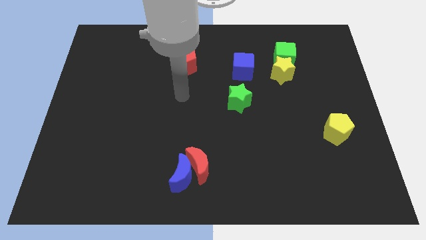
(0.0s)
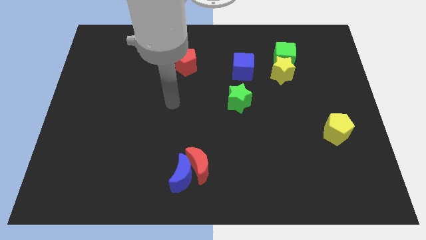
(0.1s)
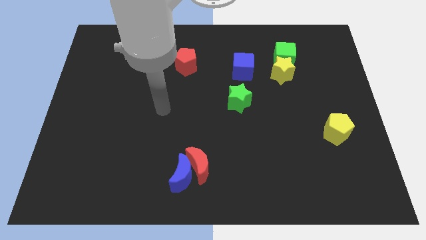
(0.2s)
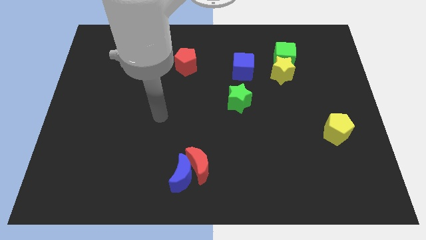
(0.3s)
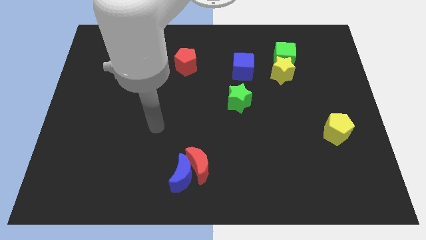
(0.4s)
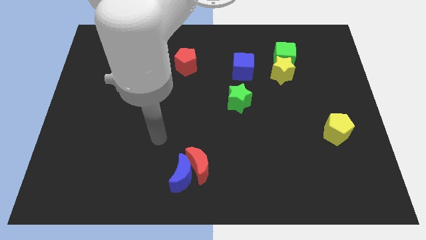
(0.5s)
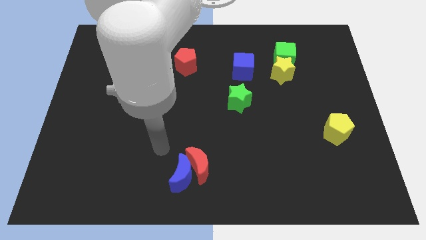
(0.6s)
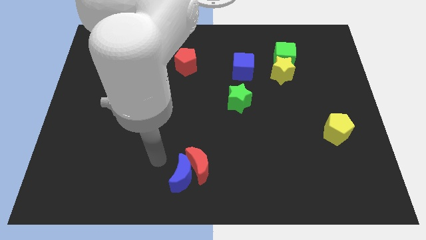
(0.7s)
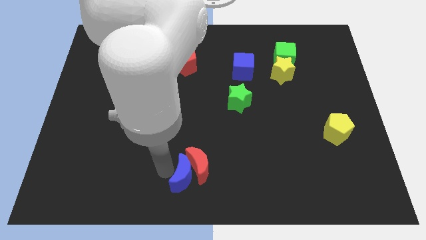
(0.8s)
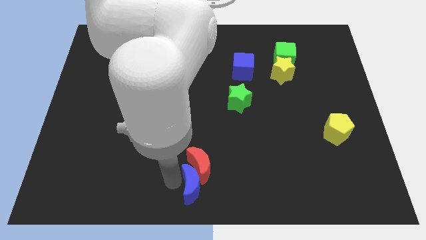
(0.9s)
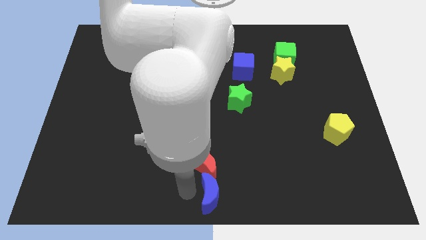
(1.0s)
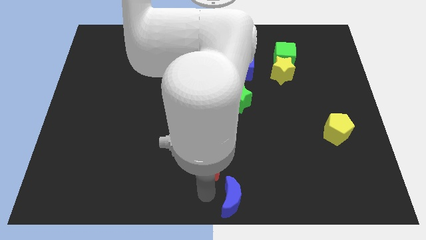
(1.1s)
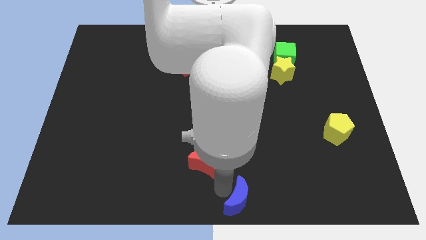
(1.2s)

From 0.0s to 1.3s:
move the red moon away from the blue moon

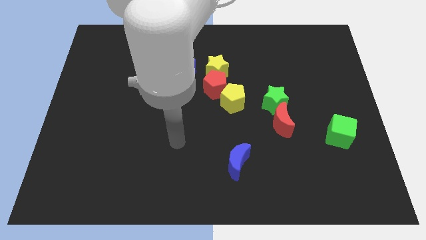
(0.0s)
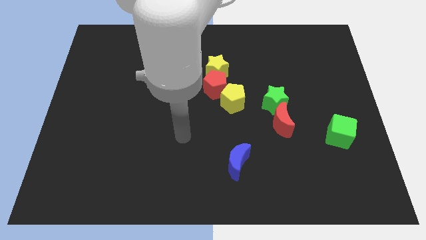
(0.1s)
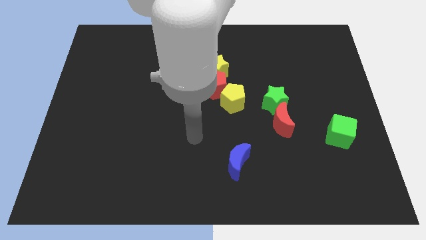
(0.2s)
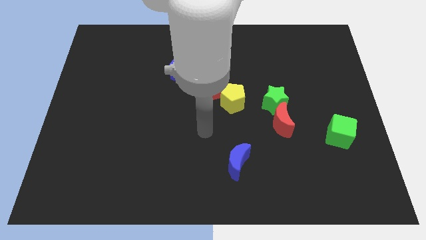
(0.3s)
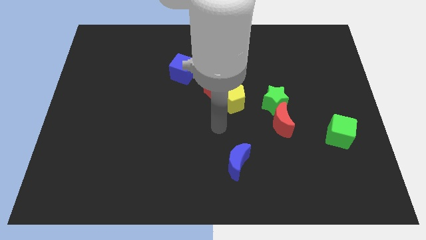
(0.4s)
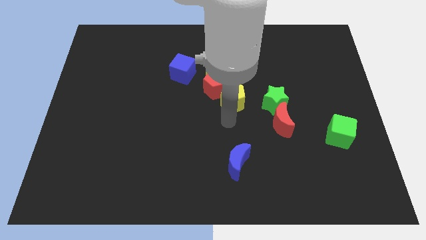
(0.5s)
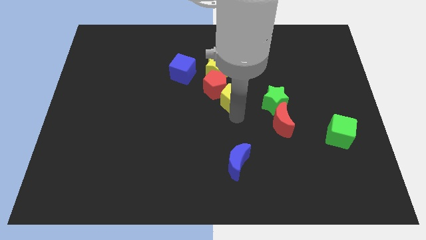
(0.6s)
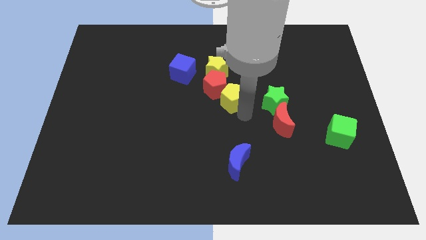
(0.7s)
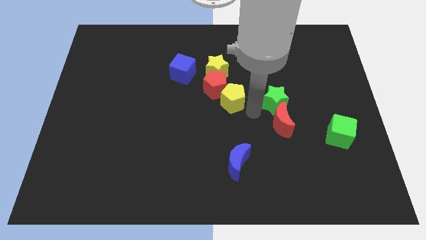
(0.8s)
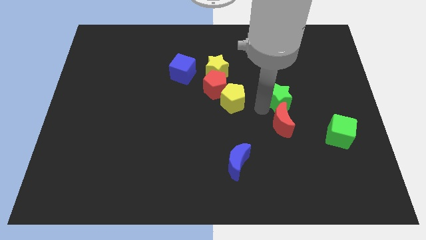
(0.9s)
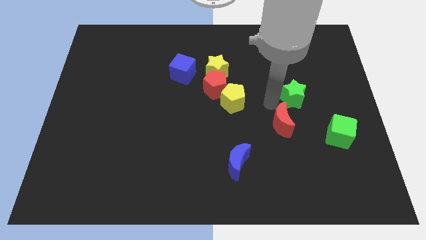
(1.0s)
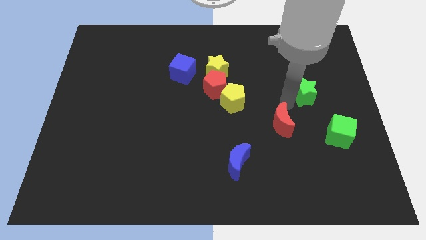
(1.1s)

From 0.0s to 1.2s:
pull the red moon apart from the green star

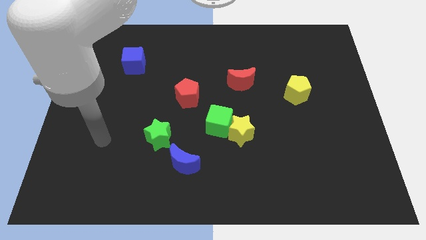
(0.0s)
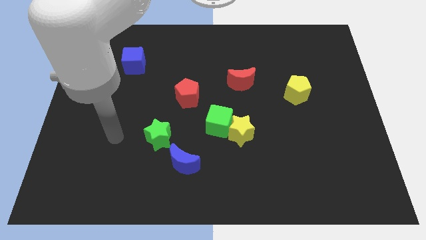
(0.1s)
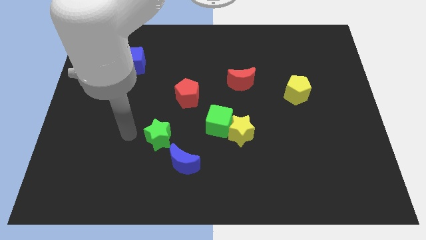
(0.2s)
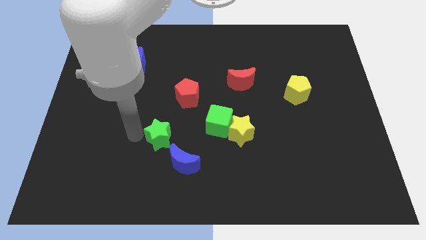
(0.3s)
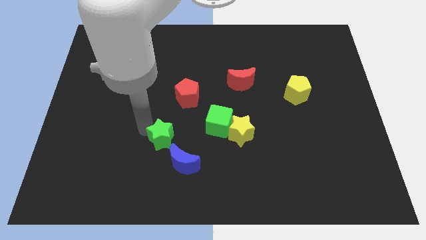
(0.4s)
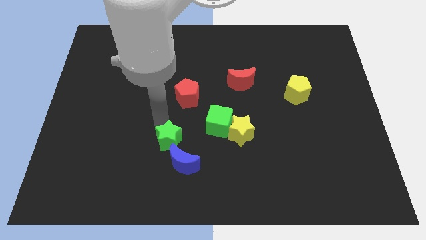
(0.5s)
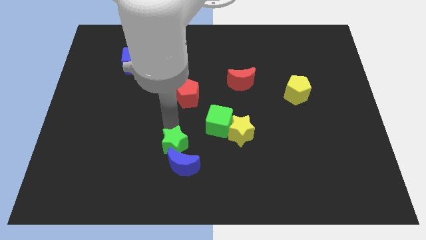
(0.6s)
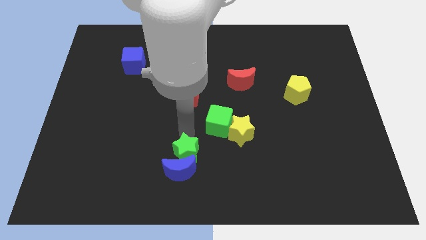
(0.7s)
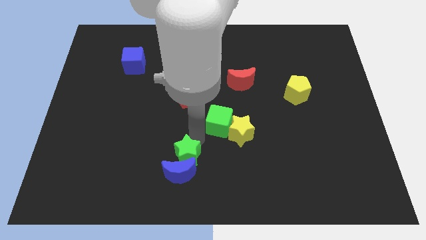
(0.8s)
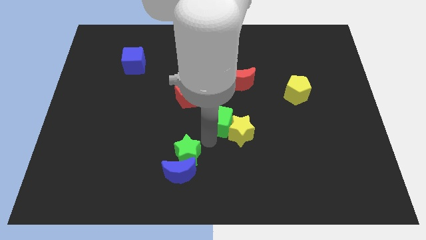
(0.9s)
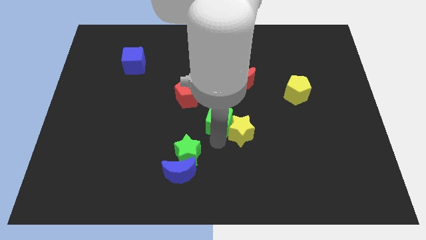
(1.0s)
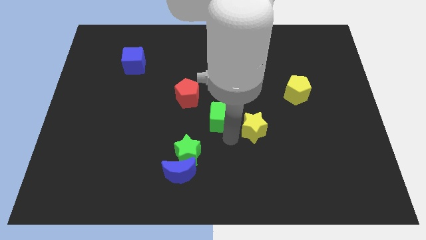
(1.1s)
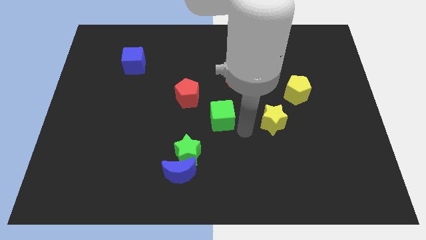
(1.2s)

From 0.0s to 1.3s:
separate the green cube from the yellow star

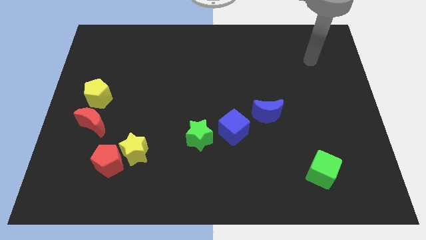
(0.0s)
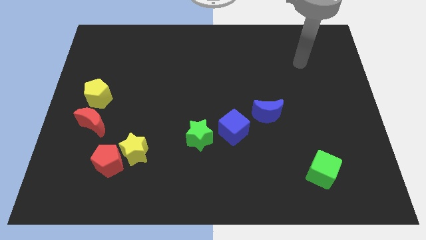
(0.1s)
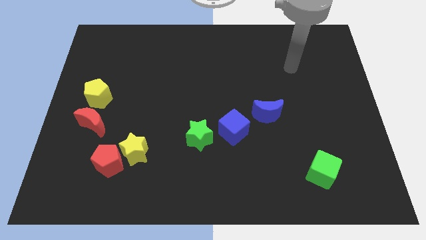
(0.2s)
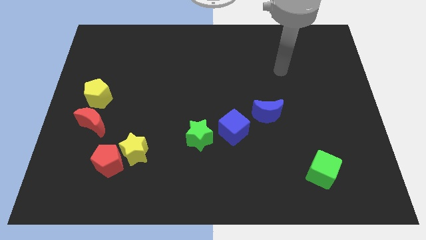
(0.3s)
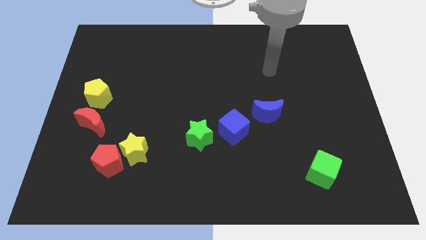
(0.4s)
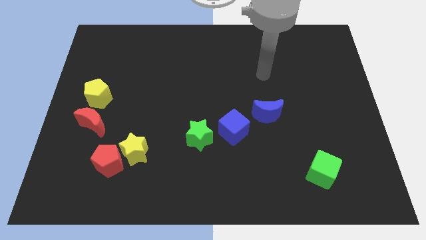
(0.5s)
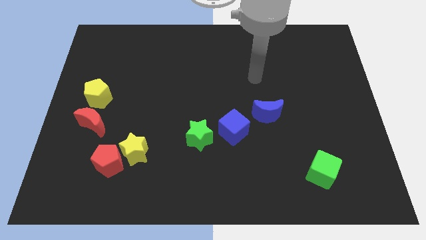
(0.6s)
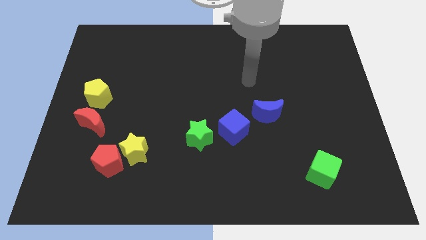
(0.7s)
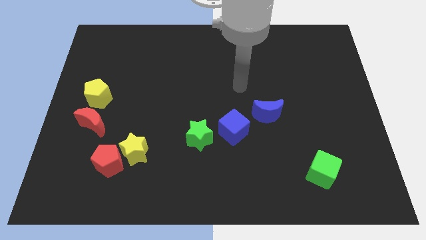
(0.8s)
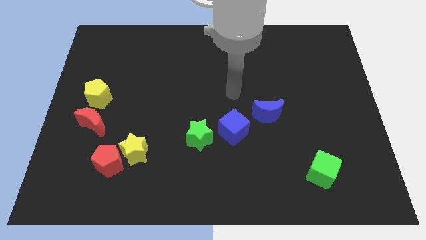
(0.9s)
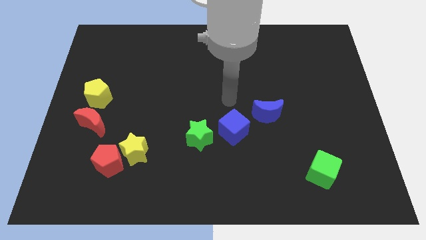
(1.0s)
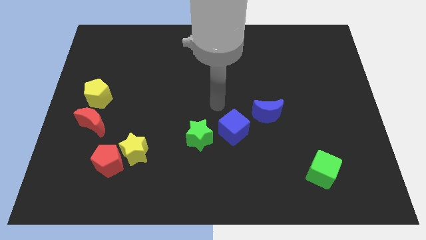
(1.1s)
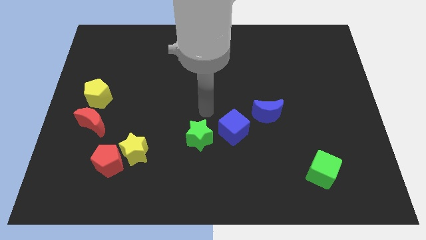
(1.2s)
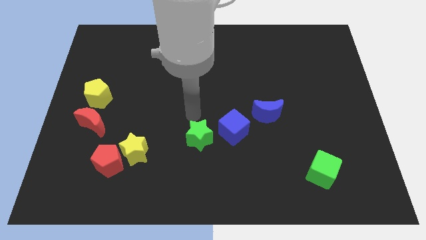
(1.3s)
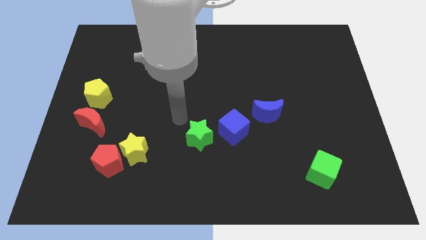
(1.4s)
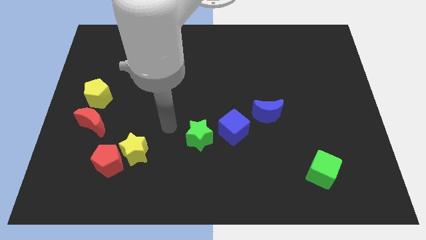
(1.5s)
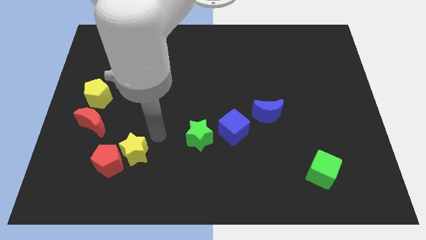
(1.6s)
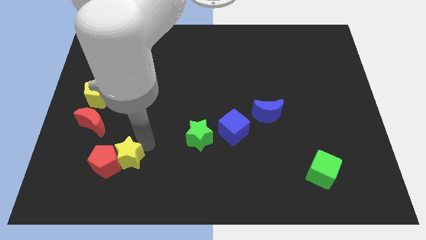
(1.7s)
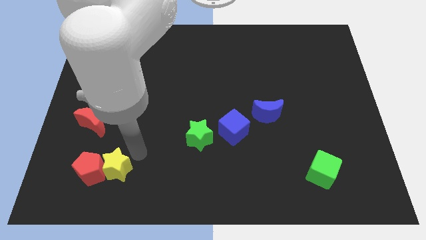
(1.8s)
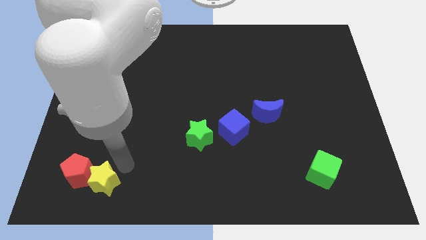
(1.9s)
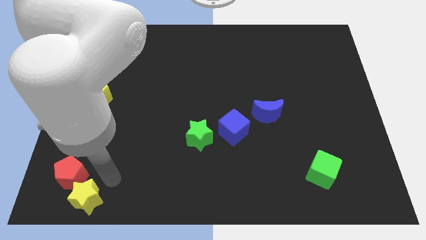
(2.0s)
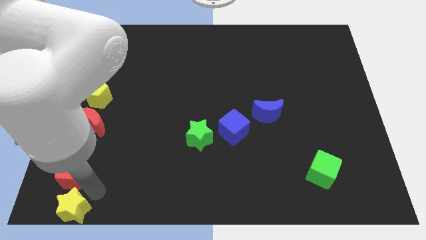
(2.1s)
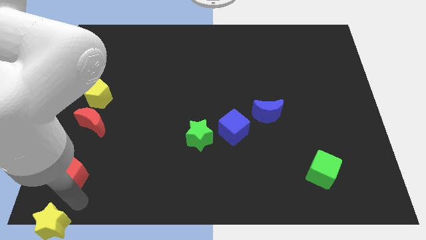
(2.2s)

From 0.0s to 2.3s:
move the red pentagon away from the yellow star

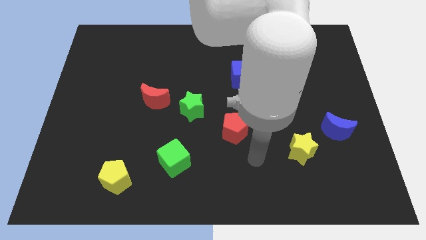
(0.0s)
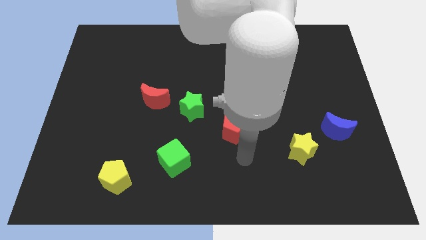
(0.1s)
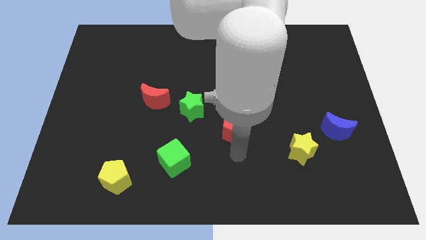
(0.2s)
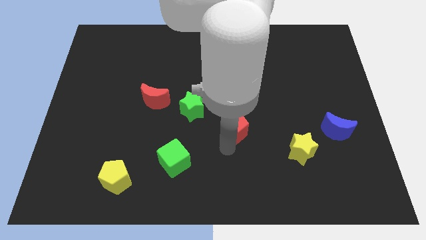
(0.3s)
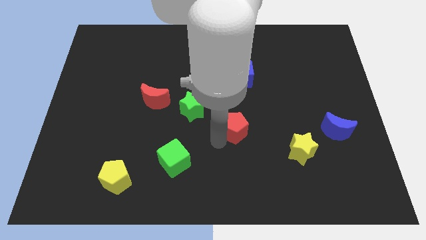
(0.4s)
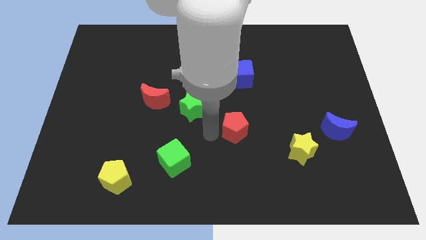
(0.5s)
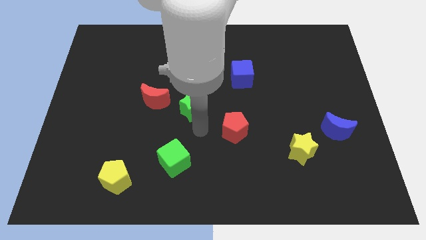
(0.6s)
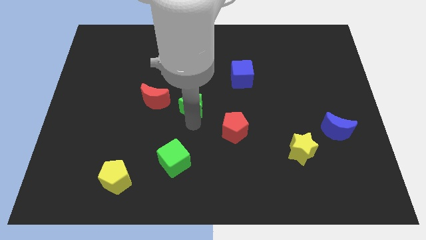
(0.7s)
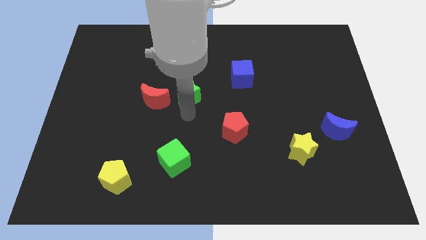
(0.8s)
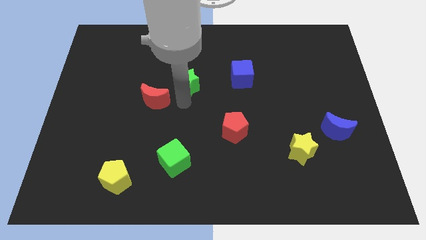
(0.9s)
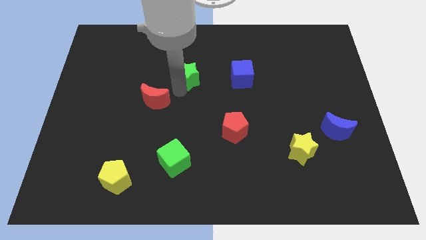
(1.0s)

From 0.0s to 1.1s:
move the red moon away from the green star

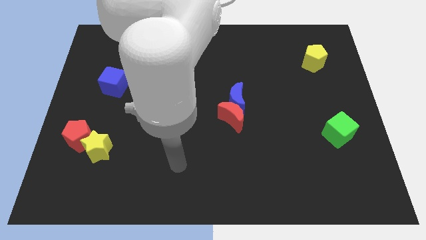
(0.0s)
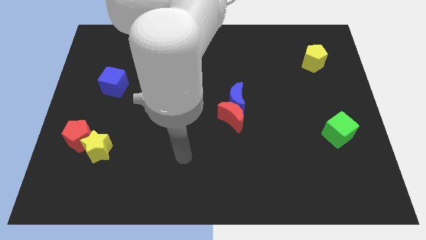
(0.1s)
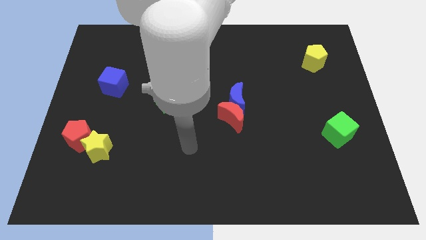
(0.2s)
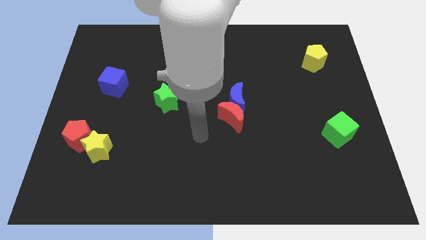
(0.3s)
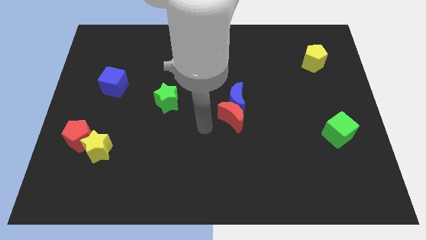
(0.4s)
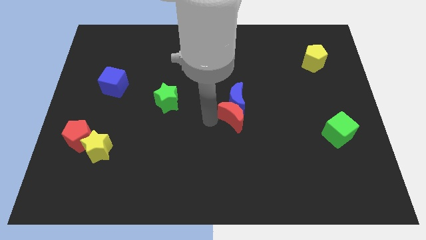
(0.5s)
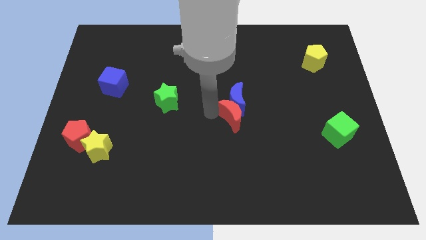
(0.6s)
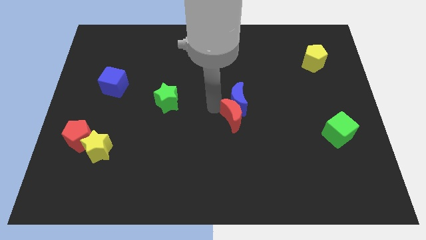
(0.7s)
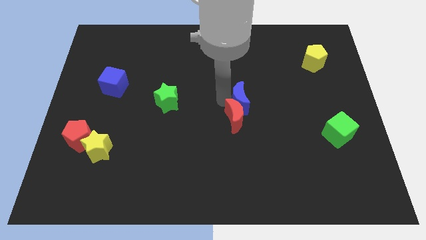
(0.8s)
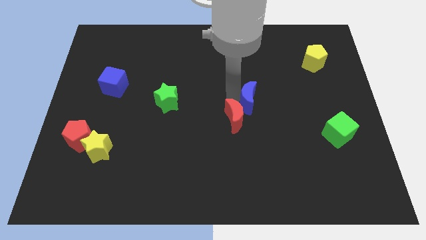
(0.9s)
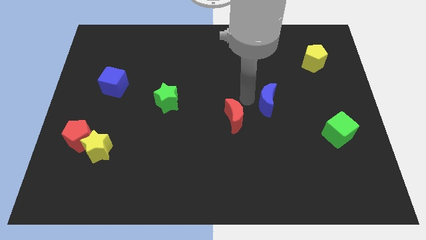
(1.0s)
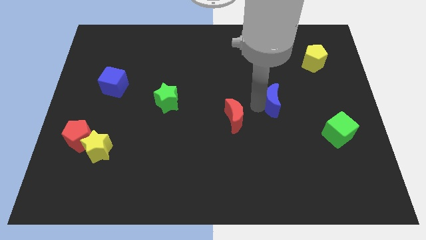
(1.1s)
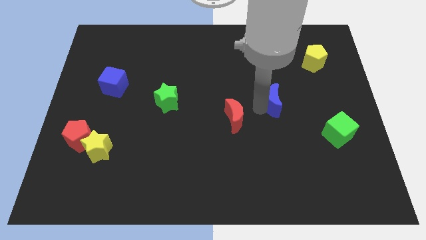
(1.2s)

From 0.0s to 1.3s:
pull the red moon apart from the blue moon

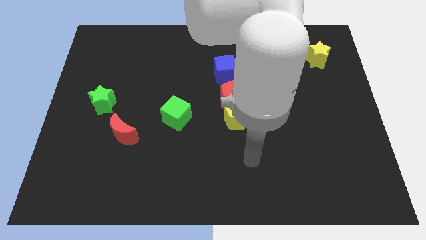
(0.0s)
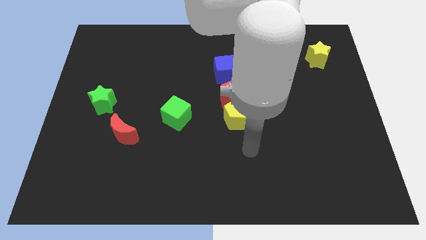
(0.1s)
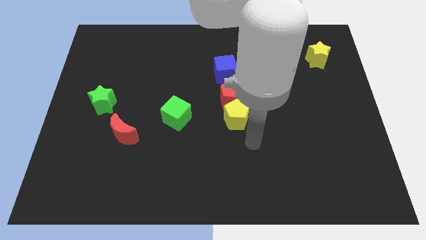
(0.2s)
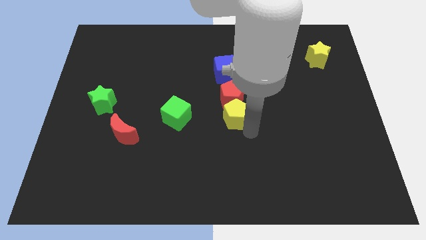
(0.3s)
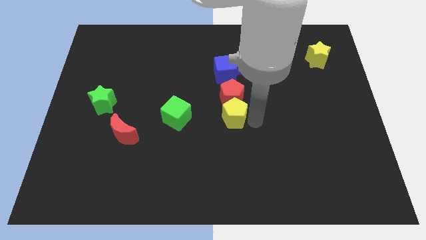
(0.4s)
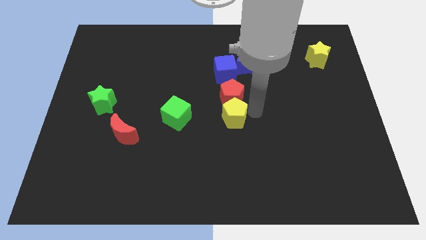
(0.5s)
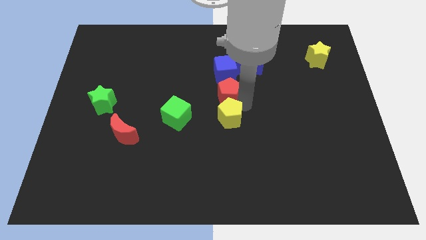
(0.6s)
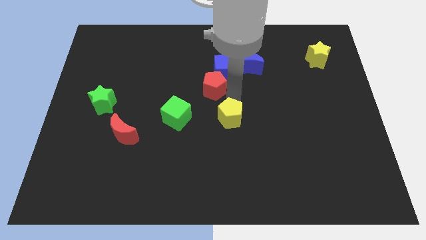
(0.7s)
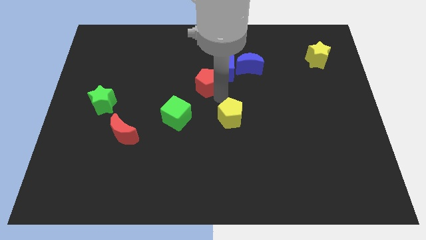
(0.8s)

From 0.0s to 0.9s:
move the yellow pentagon away from the red pentagon
